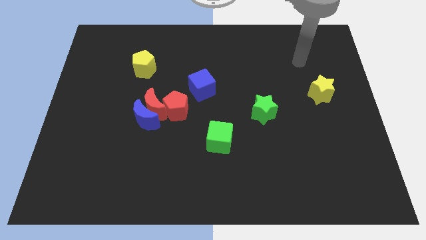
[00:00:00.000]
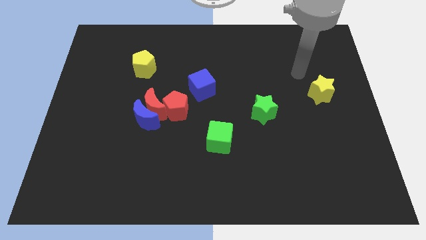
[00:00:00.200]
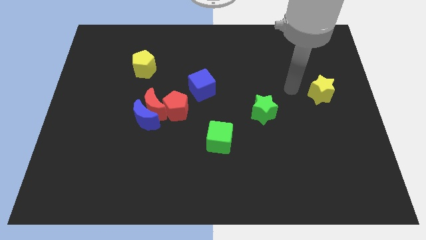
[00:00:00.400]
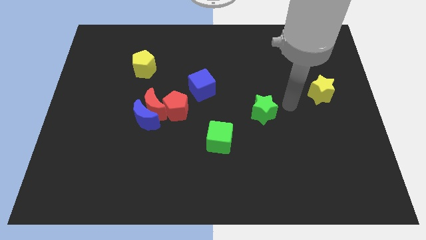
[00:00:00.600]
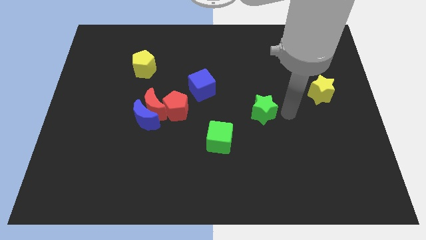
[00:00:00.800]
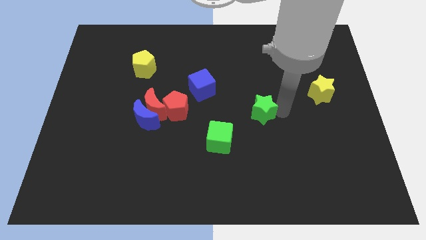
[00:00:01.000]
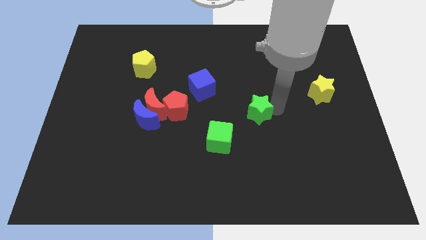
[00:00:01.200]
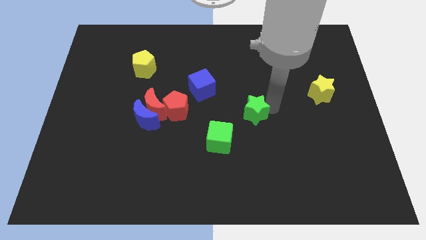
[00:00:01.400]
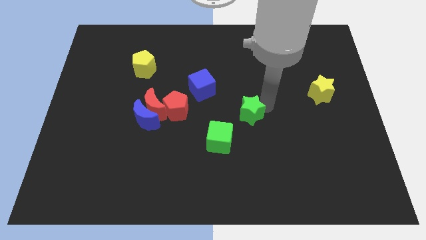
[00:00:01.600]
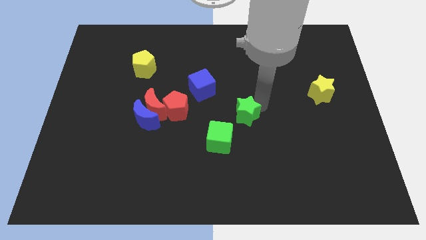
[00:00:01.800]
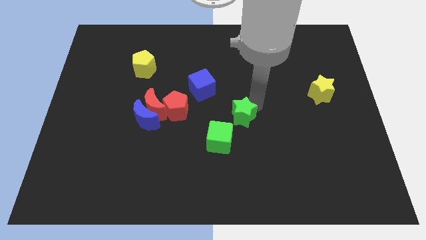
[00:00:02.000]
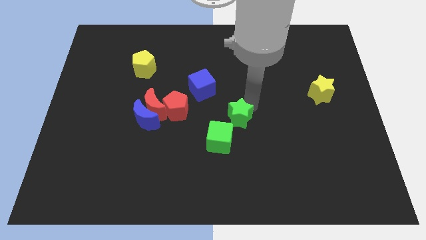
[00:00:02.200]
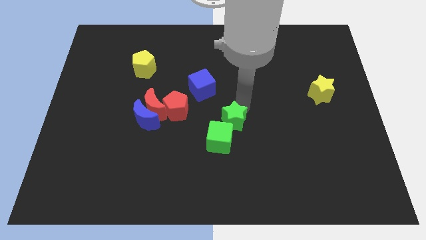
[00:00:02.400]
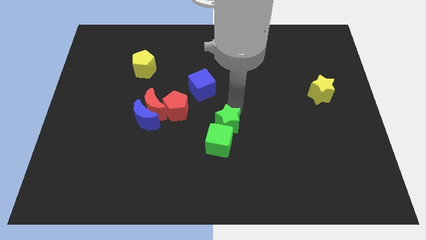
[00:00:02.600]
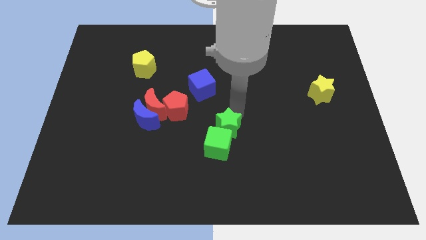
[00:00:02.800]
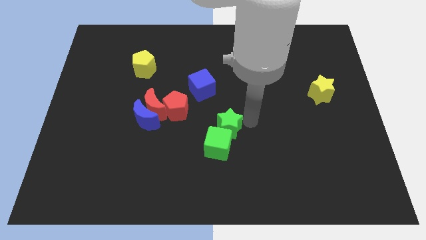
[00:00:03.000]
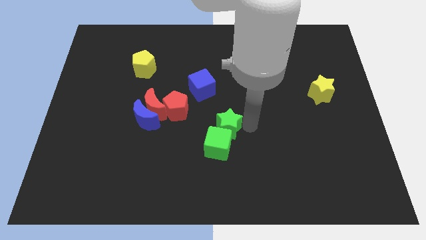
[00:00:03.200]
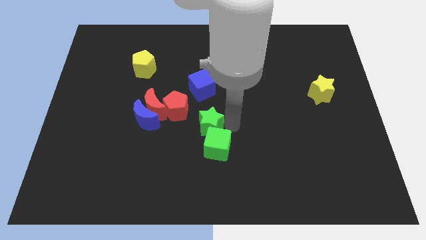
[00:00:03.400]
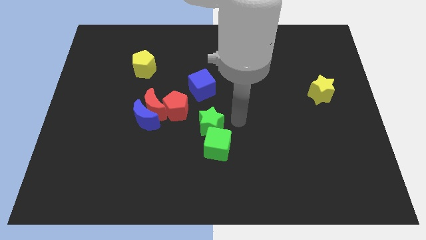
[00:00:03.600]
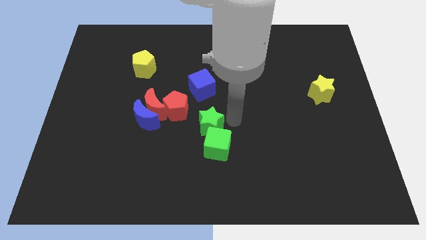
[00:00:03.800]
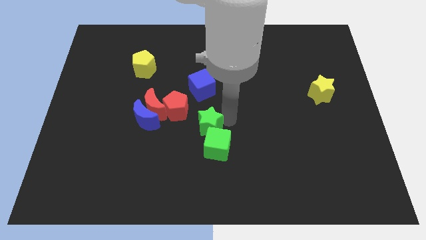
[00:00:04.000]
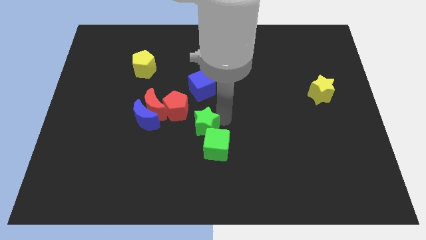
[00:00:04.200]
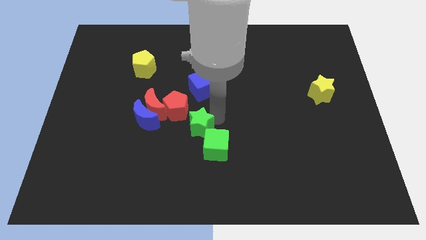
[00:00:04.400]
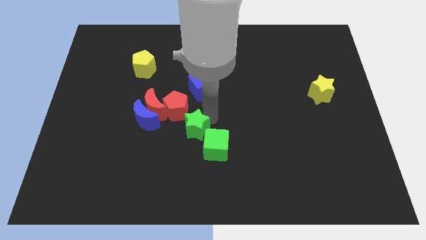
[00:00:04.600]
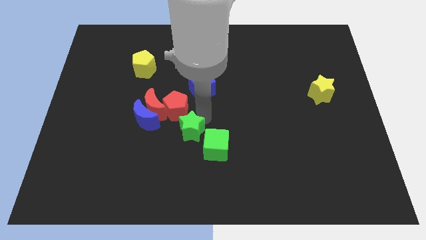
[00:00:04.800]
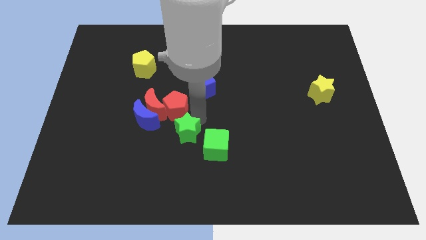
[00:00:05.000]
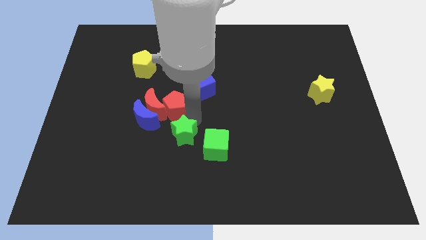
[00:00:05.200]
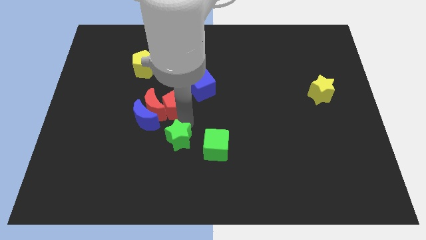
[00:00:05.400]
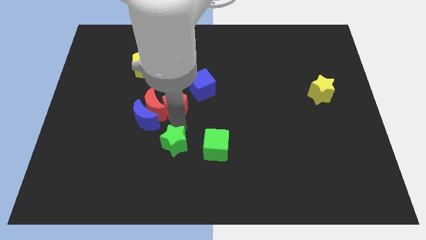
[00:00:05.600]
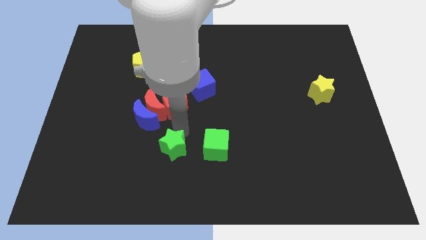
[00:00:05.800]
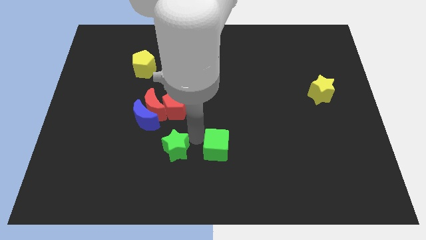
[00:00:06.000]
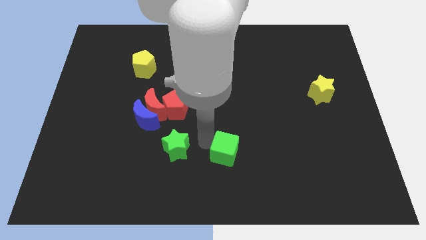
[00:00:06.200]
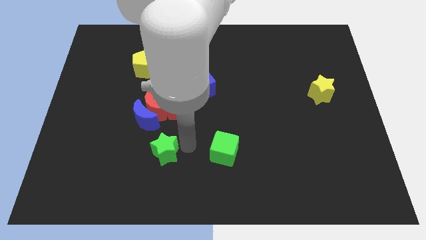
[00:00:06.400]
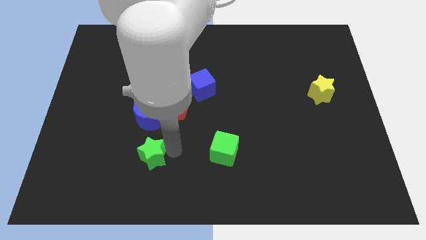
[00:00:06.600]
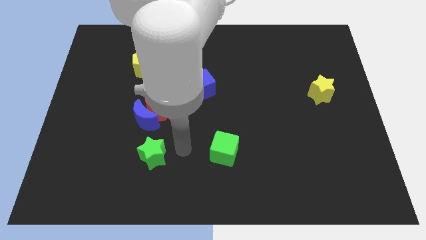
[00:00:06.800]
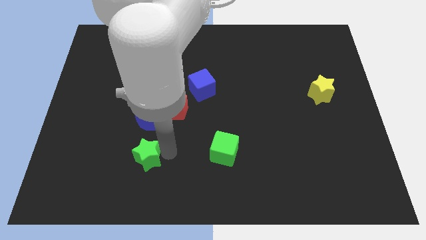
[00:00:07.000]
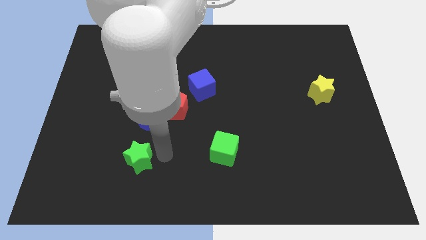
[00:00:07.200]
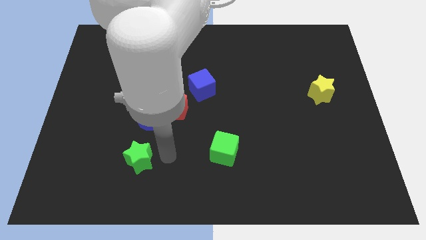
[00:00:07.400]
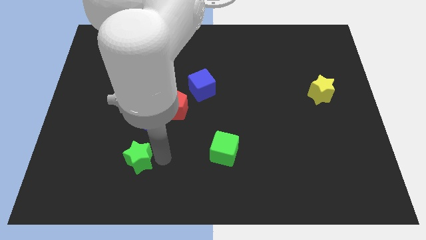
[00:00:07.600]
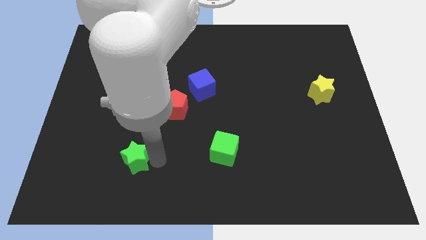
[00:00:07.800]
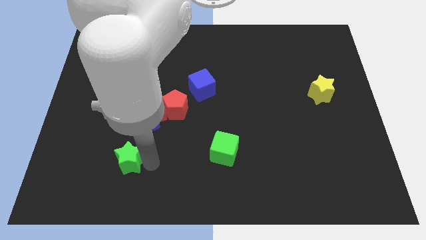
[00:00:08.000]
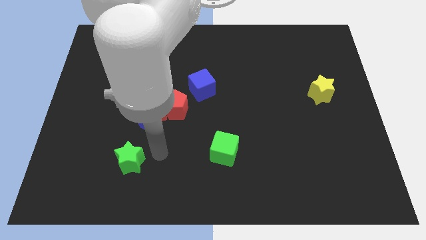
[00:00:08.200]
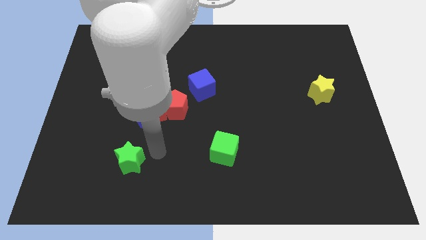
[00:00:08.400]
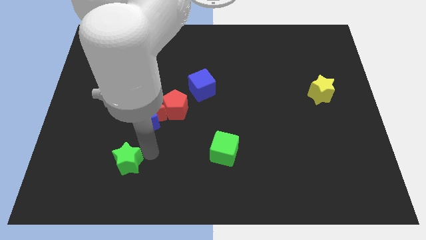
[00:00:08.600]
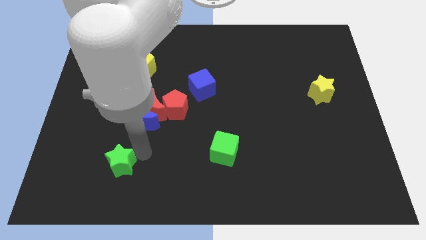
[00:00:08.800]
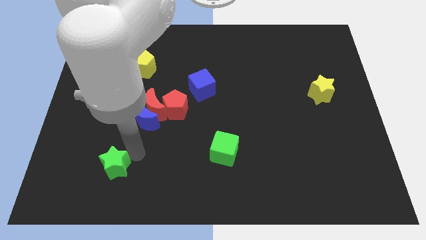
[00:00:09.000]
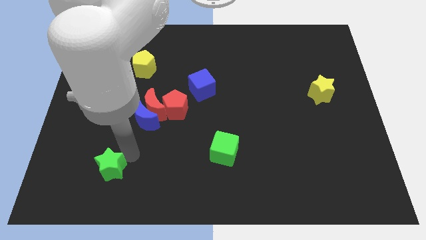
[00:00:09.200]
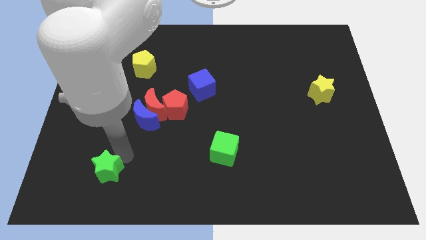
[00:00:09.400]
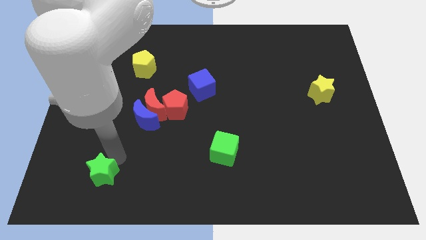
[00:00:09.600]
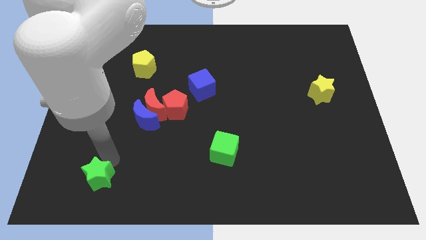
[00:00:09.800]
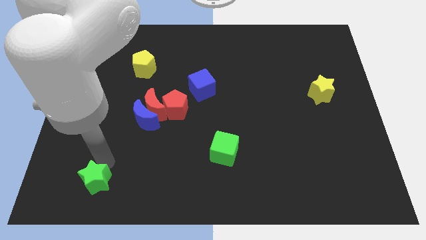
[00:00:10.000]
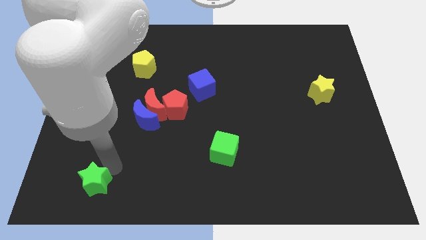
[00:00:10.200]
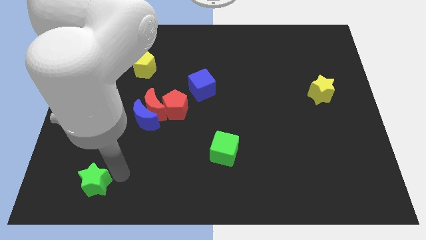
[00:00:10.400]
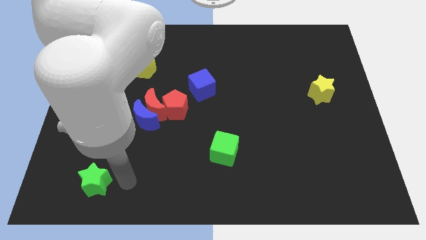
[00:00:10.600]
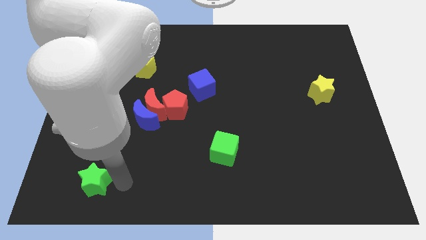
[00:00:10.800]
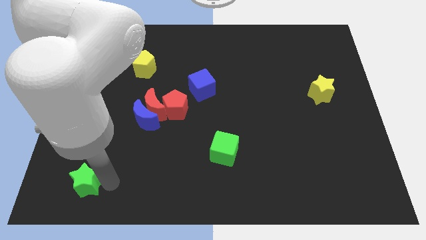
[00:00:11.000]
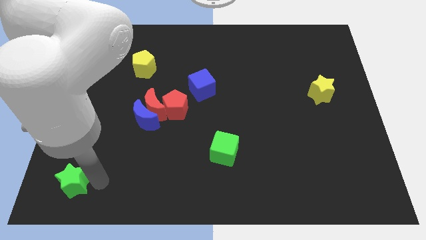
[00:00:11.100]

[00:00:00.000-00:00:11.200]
put the green star to the bottom left

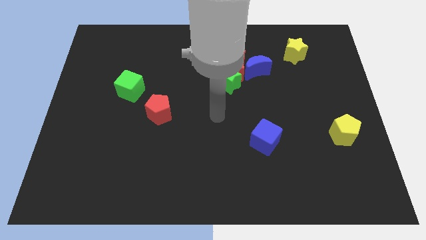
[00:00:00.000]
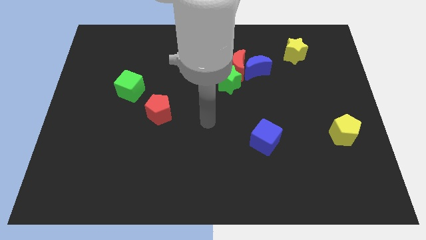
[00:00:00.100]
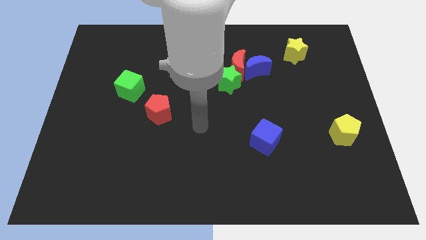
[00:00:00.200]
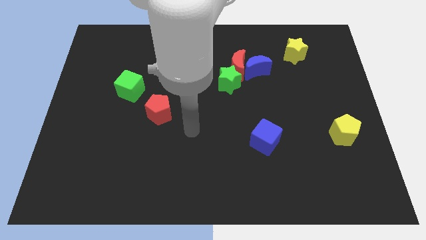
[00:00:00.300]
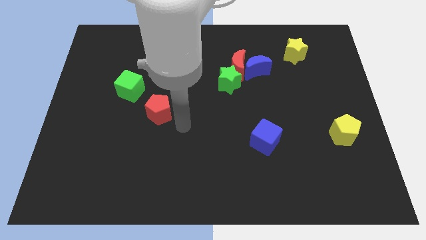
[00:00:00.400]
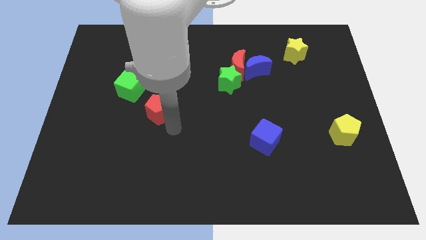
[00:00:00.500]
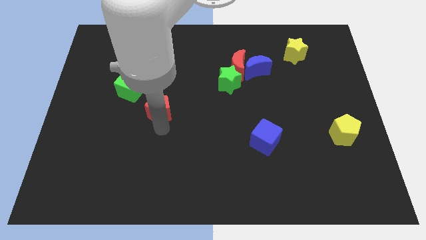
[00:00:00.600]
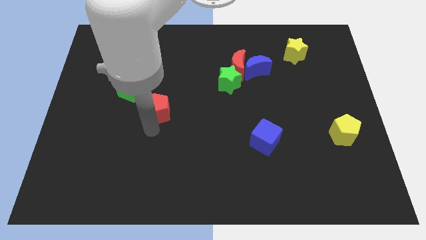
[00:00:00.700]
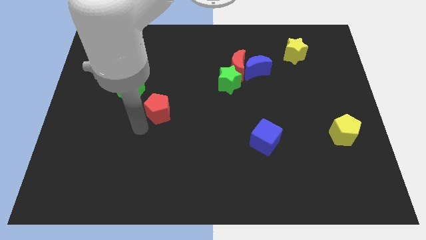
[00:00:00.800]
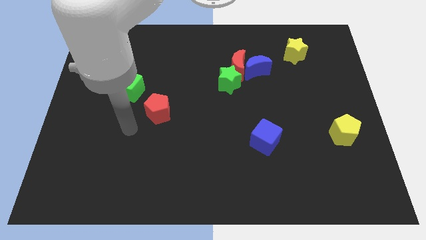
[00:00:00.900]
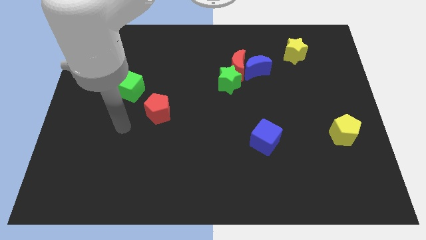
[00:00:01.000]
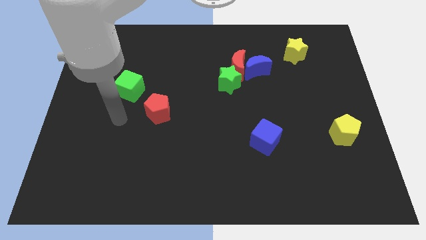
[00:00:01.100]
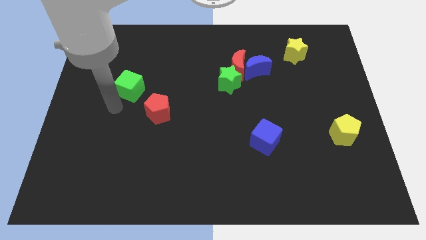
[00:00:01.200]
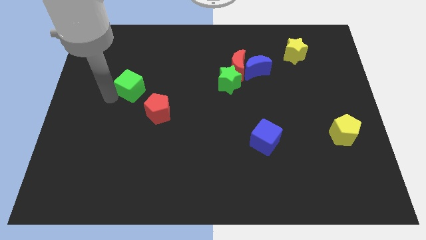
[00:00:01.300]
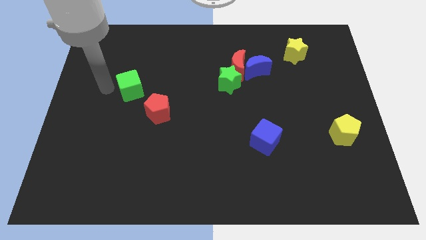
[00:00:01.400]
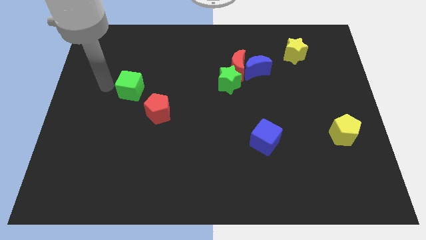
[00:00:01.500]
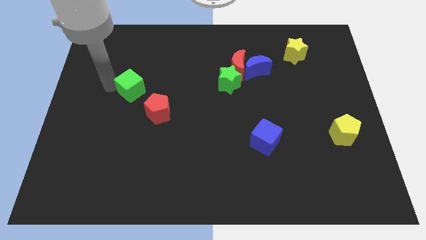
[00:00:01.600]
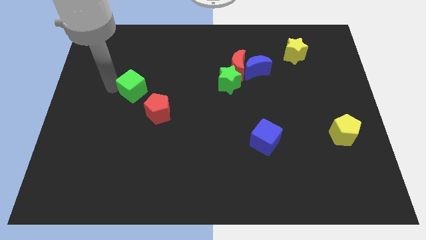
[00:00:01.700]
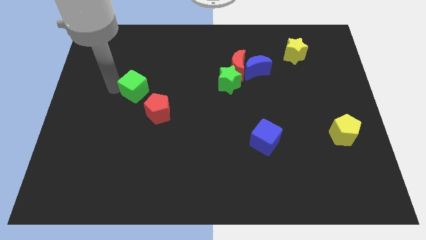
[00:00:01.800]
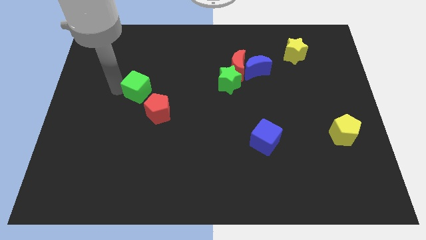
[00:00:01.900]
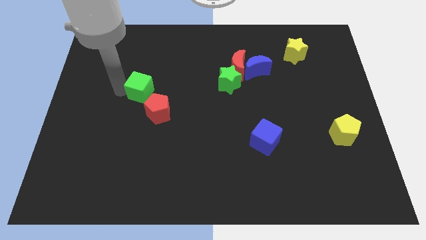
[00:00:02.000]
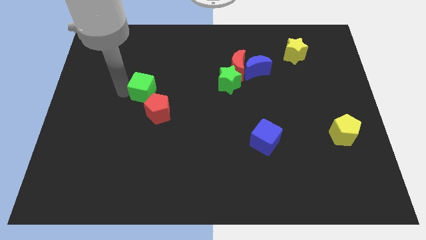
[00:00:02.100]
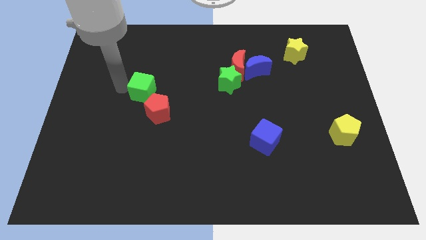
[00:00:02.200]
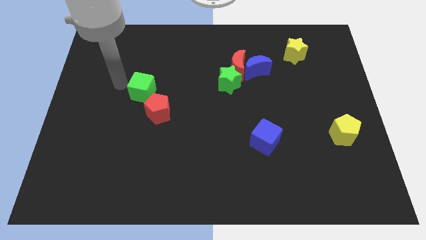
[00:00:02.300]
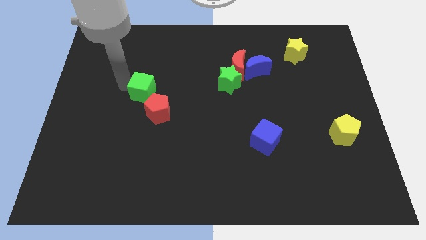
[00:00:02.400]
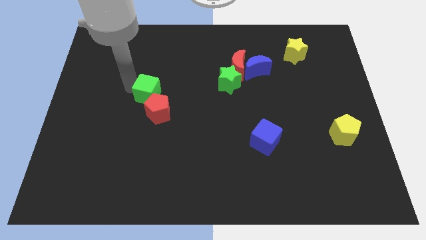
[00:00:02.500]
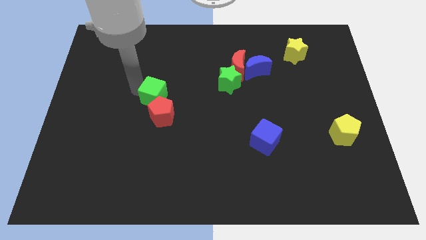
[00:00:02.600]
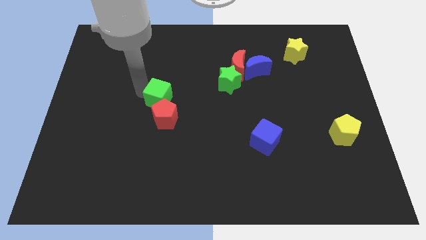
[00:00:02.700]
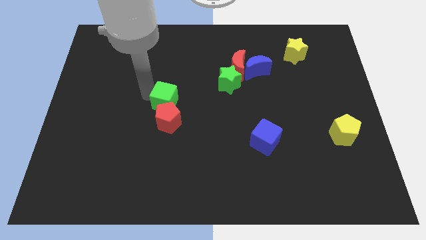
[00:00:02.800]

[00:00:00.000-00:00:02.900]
move the green cube to the middle
